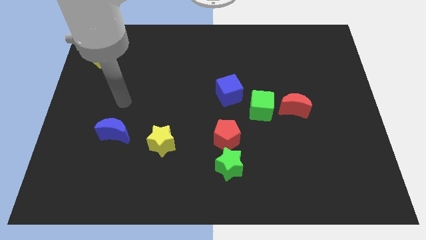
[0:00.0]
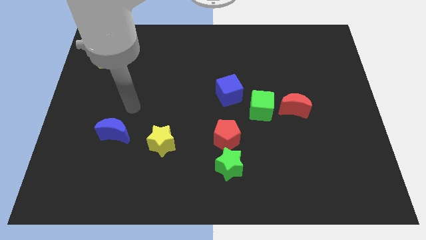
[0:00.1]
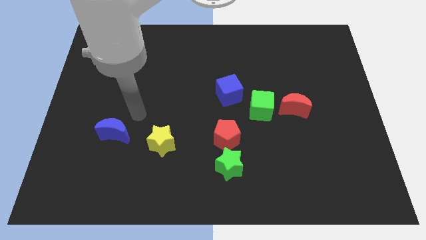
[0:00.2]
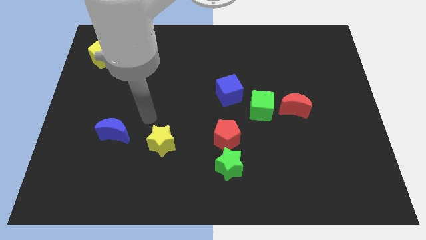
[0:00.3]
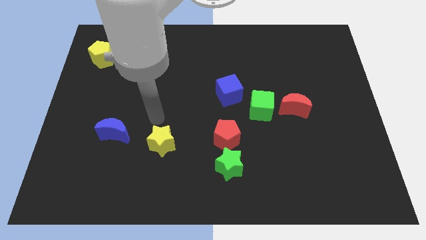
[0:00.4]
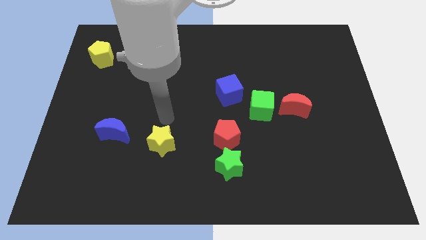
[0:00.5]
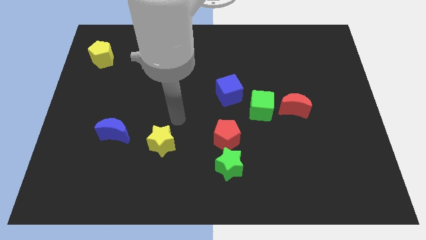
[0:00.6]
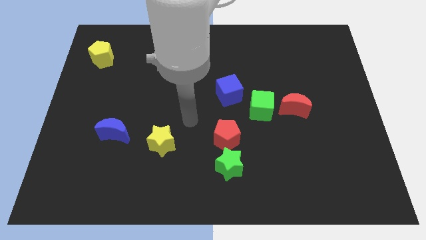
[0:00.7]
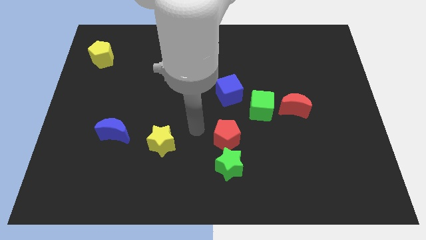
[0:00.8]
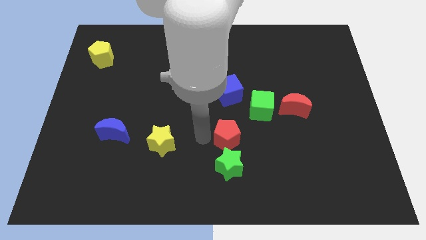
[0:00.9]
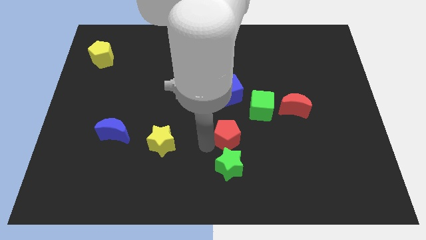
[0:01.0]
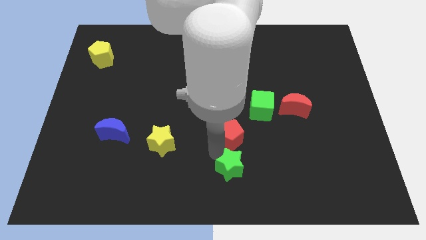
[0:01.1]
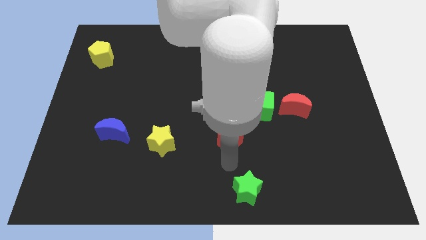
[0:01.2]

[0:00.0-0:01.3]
separate the red pentagon from the green star

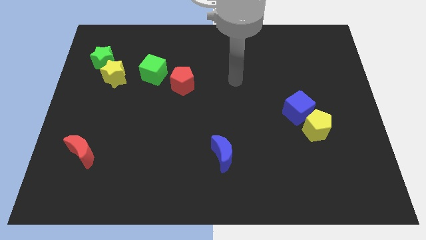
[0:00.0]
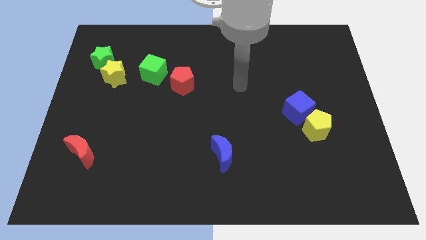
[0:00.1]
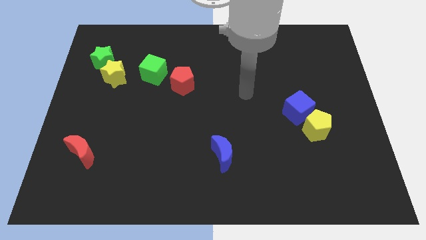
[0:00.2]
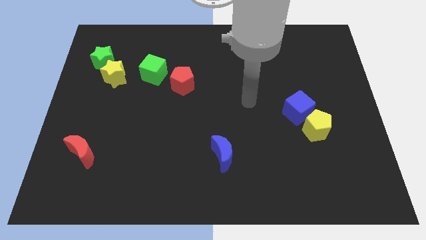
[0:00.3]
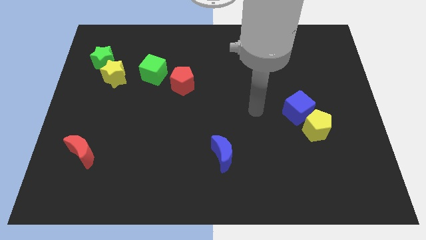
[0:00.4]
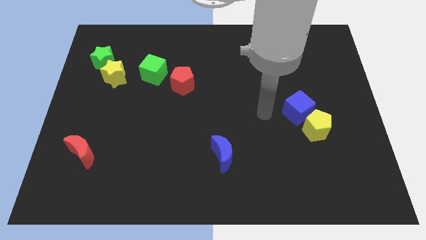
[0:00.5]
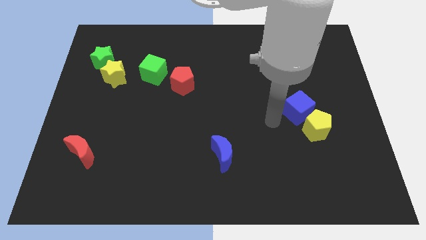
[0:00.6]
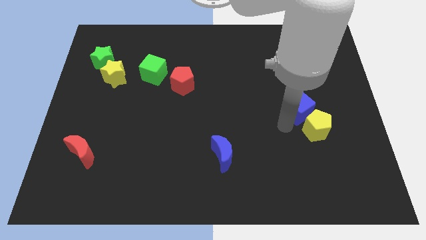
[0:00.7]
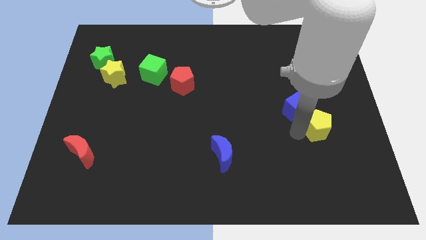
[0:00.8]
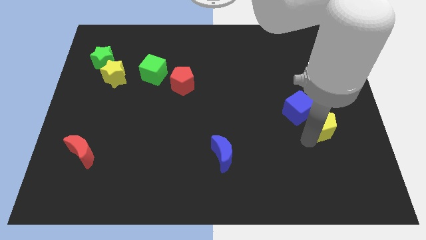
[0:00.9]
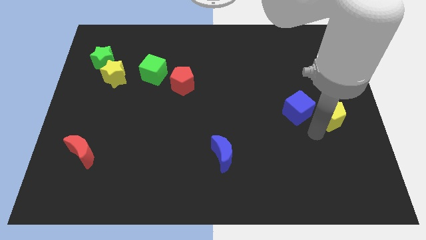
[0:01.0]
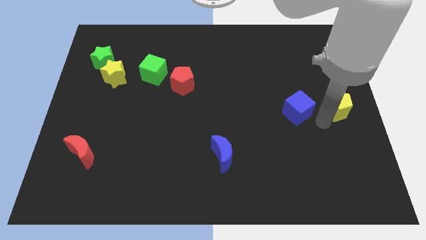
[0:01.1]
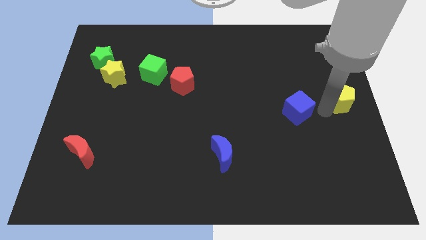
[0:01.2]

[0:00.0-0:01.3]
separate the blue cube from the yellow pentagon

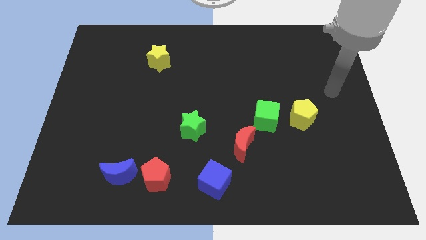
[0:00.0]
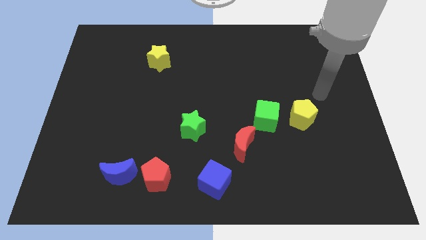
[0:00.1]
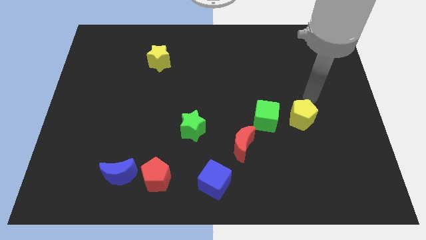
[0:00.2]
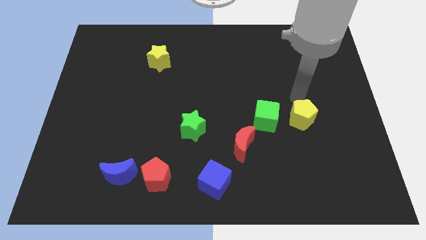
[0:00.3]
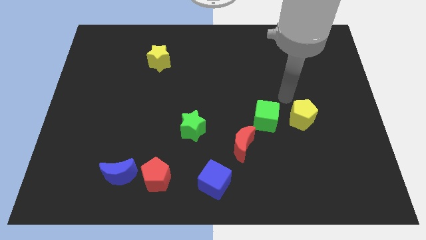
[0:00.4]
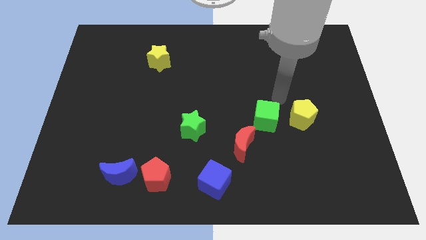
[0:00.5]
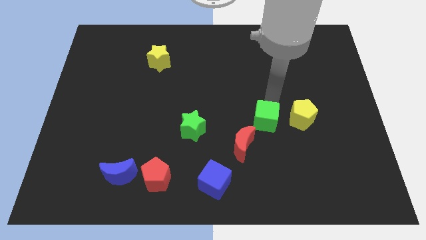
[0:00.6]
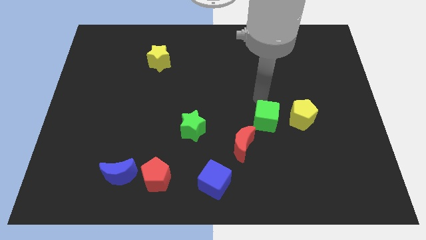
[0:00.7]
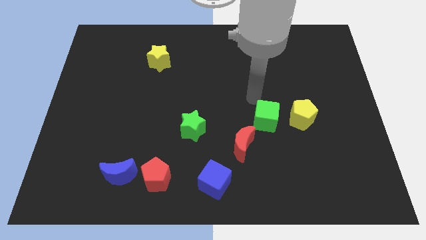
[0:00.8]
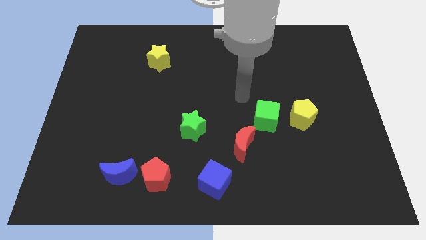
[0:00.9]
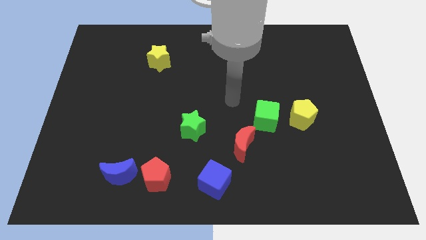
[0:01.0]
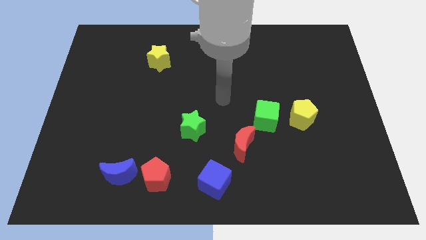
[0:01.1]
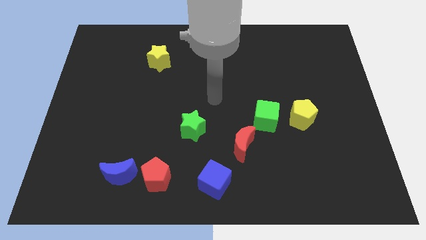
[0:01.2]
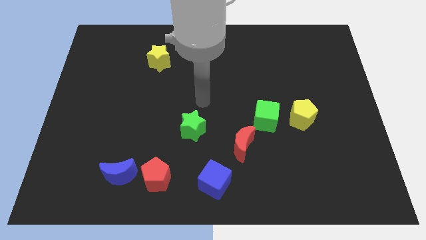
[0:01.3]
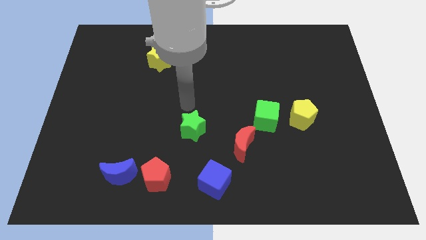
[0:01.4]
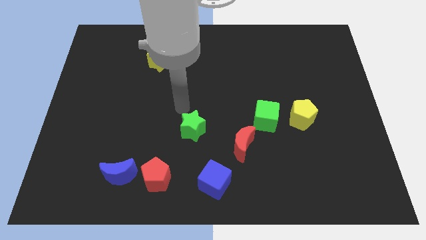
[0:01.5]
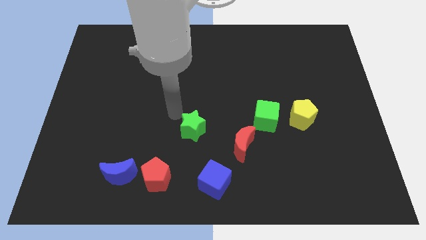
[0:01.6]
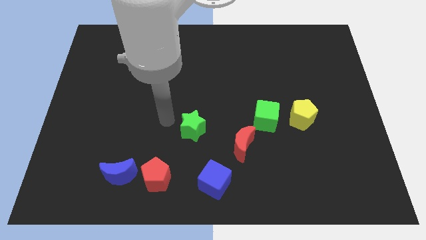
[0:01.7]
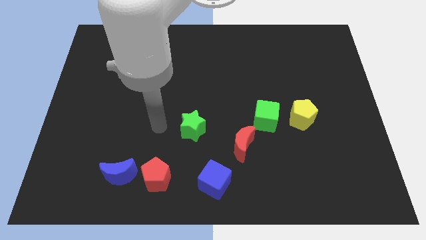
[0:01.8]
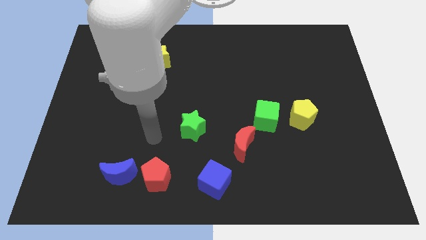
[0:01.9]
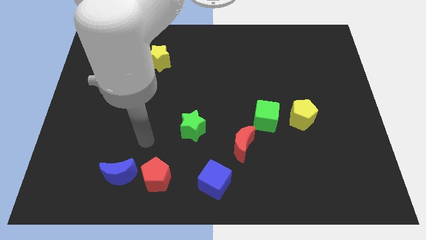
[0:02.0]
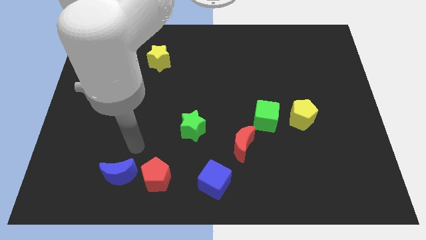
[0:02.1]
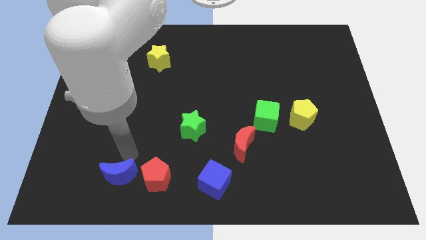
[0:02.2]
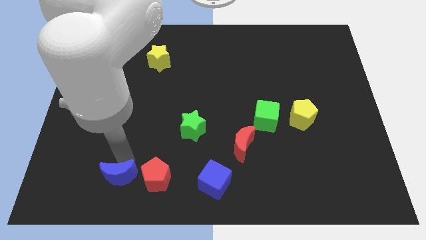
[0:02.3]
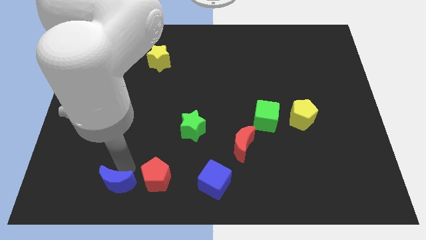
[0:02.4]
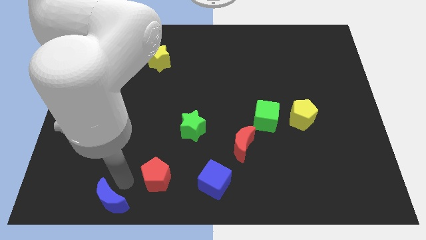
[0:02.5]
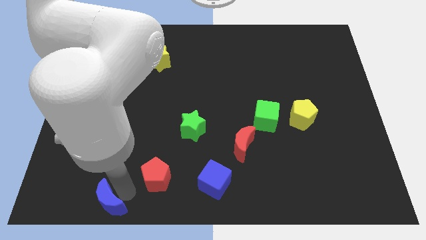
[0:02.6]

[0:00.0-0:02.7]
move the red pentagon away from the blue moon

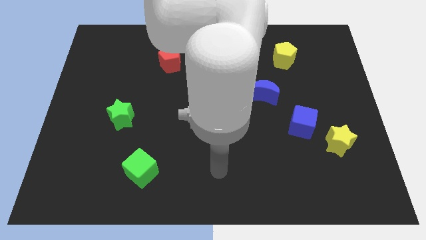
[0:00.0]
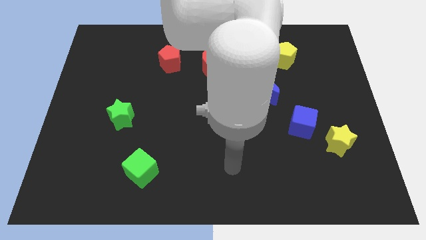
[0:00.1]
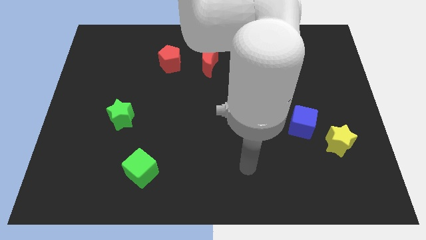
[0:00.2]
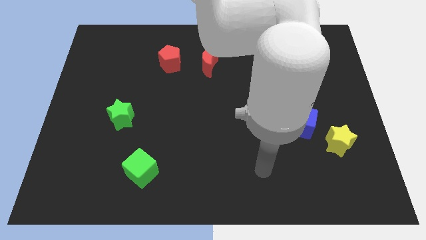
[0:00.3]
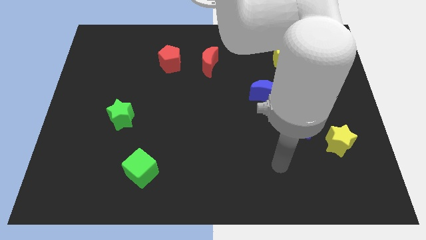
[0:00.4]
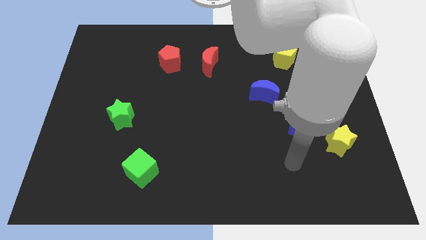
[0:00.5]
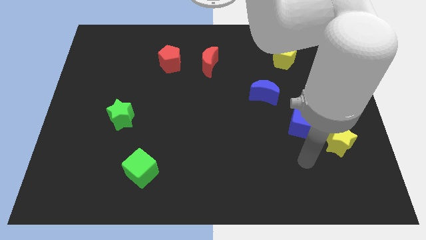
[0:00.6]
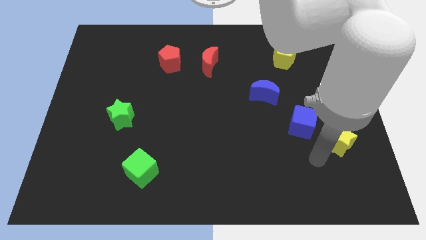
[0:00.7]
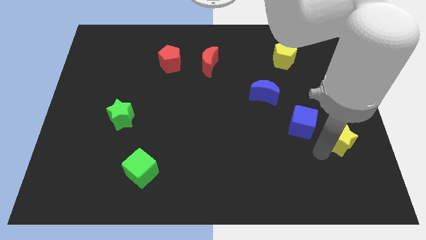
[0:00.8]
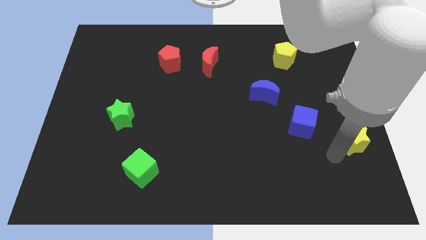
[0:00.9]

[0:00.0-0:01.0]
separate the blue cube from the yellow star

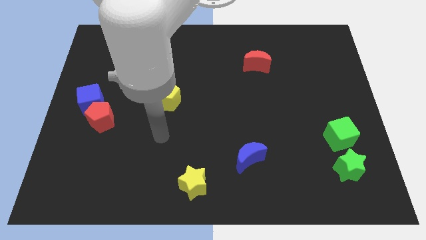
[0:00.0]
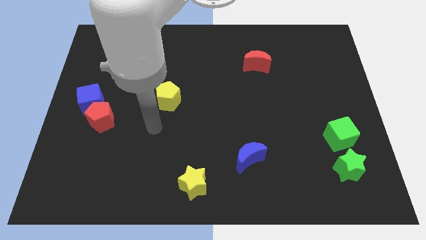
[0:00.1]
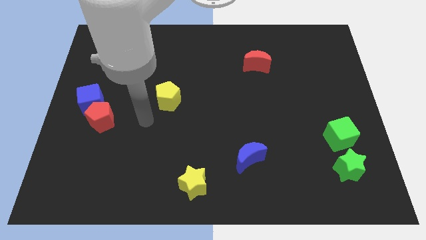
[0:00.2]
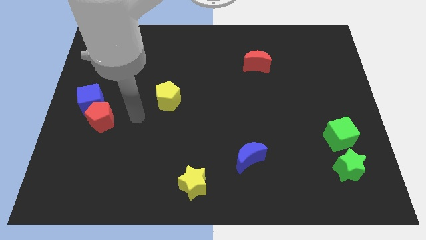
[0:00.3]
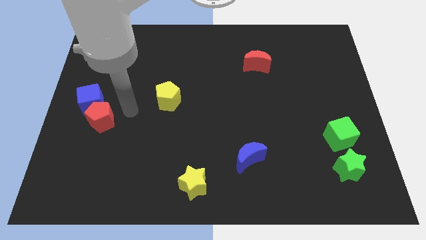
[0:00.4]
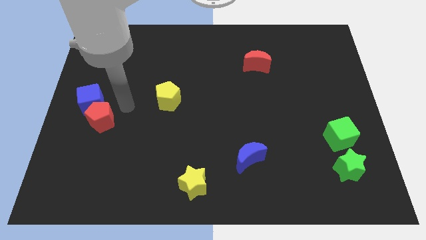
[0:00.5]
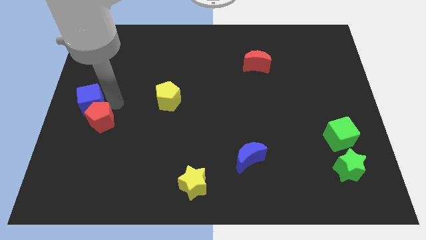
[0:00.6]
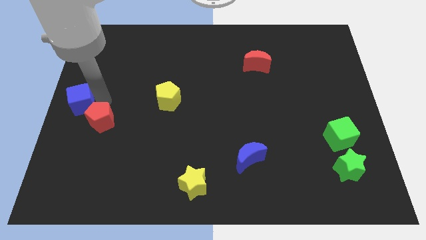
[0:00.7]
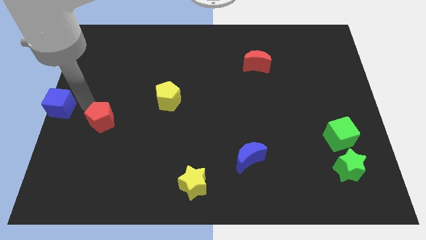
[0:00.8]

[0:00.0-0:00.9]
move the red pentagon away from the blue cube

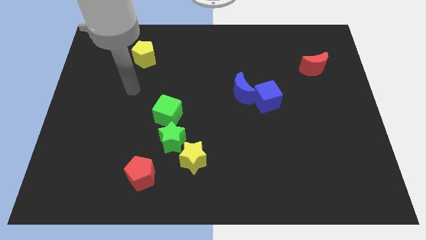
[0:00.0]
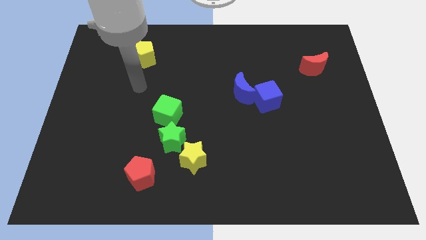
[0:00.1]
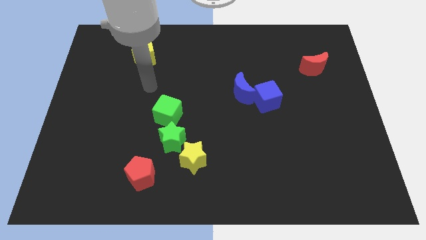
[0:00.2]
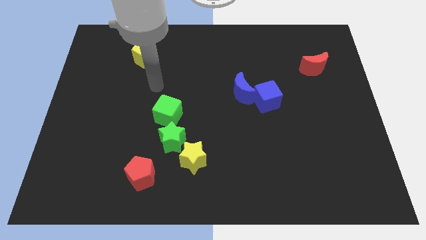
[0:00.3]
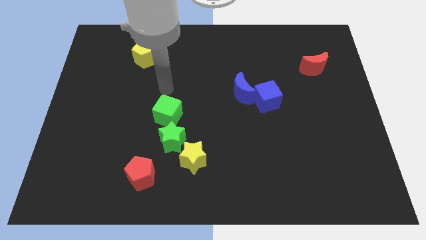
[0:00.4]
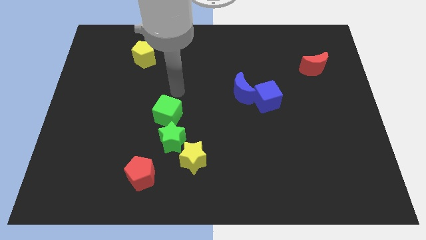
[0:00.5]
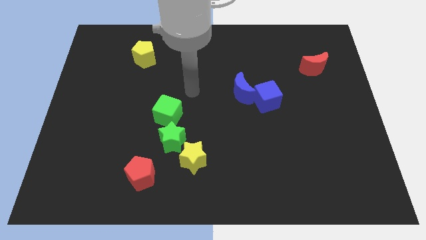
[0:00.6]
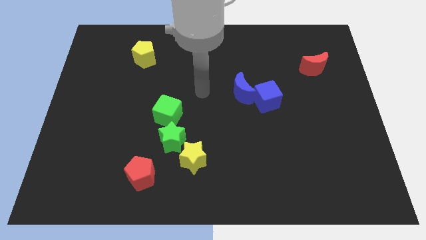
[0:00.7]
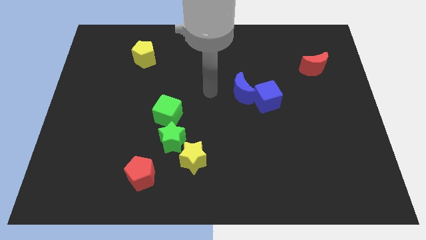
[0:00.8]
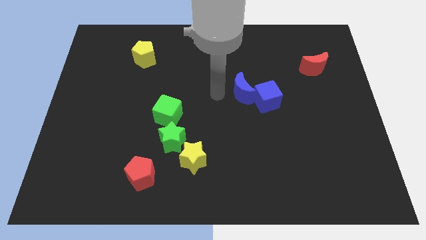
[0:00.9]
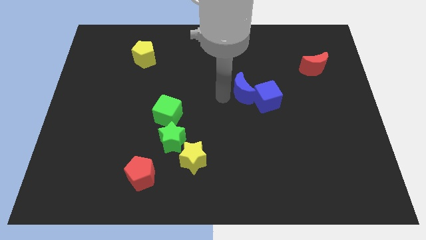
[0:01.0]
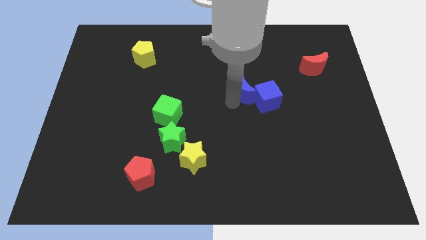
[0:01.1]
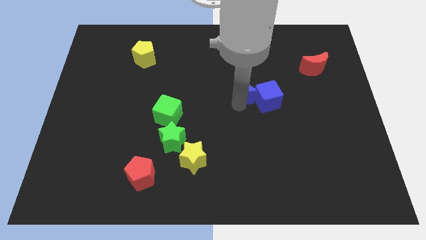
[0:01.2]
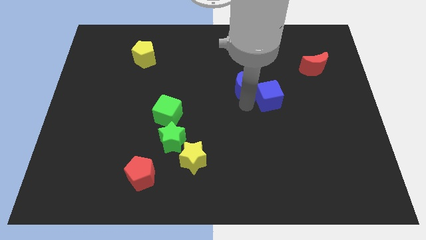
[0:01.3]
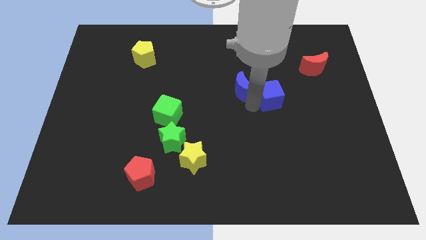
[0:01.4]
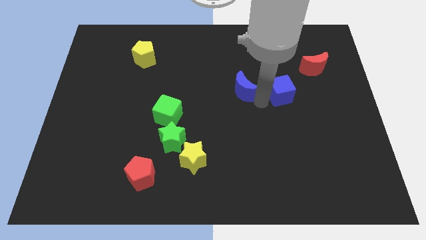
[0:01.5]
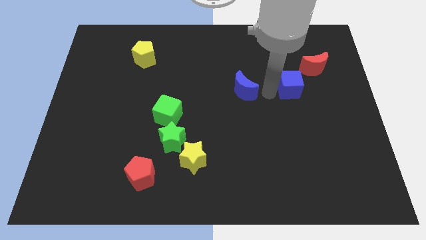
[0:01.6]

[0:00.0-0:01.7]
separate the blue moon from the blue cube

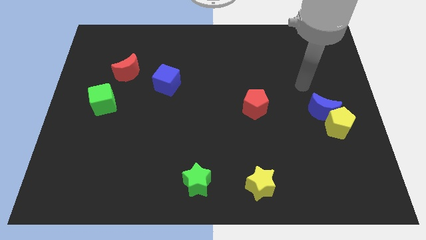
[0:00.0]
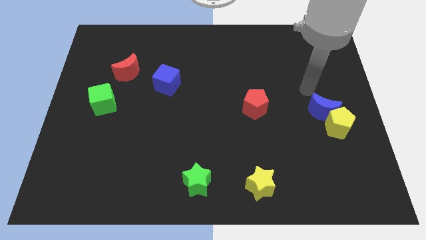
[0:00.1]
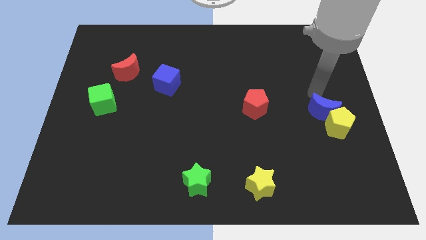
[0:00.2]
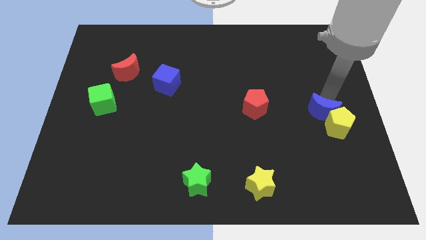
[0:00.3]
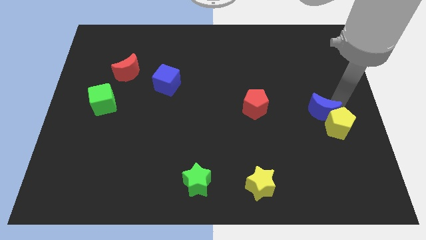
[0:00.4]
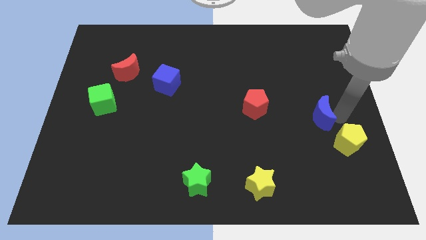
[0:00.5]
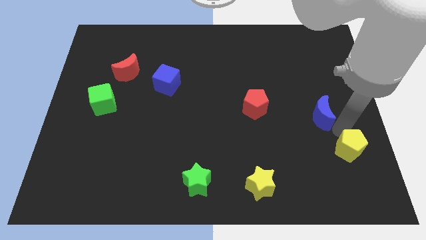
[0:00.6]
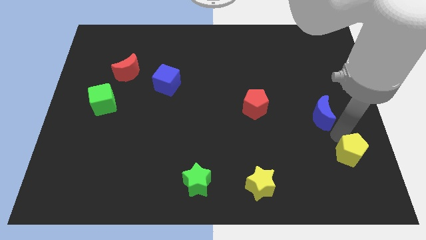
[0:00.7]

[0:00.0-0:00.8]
move the blue moon away from the yellow pentagon
